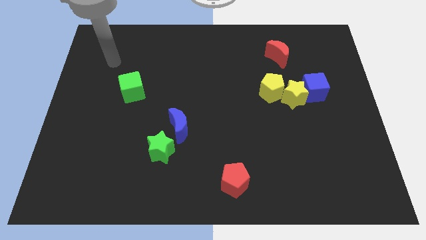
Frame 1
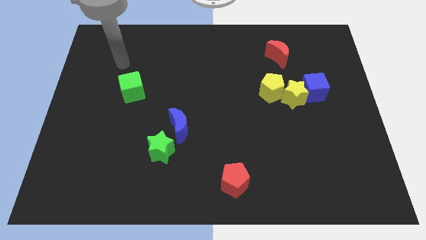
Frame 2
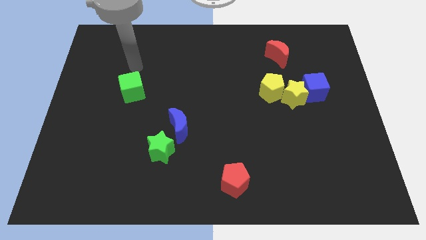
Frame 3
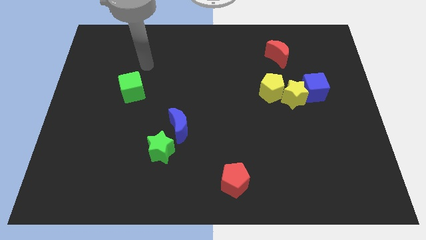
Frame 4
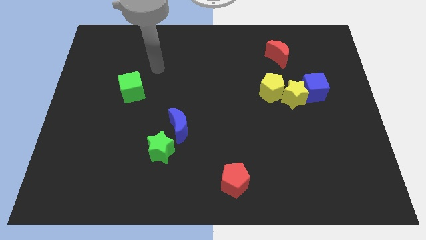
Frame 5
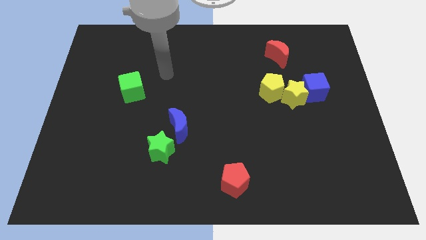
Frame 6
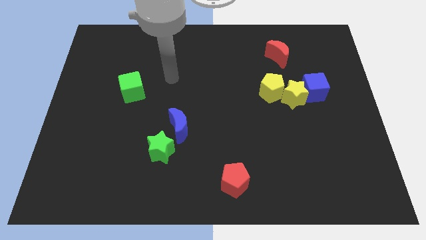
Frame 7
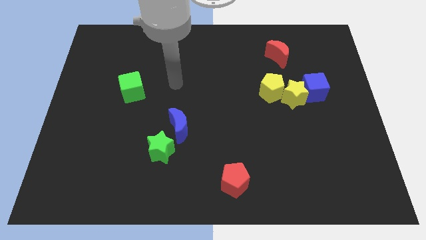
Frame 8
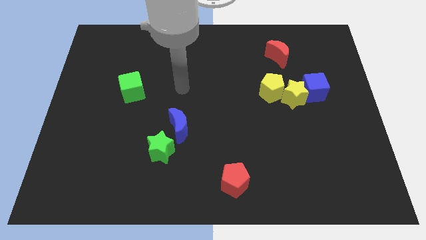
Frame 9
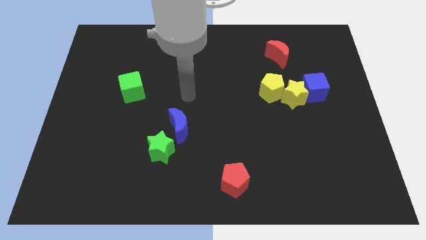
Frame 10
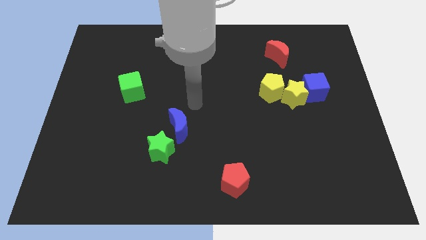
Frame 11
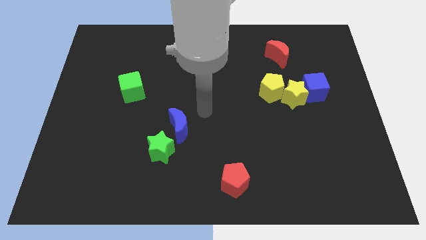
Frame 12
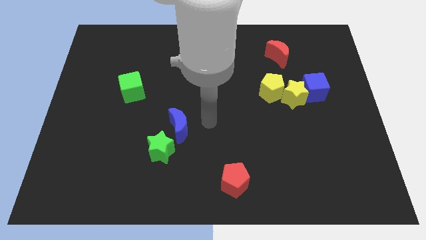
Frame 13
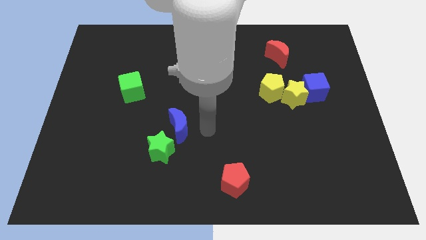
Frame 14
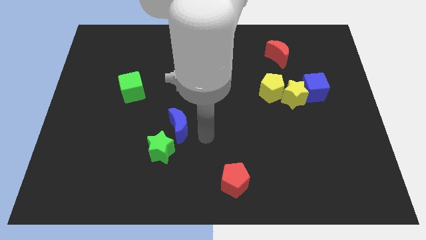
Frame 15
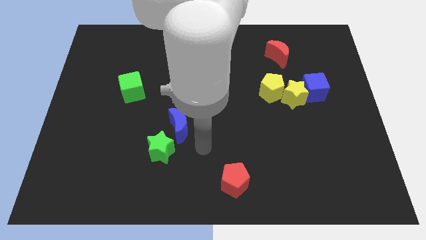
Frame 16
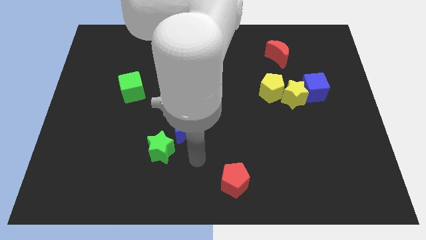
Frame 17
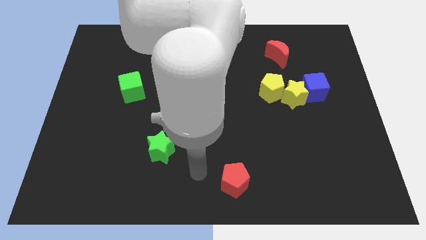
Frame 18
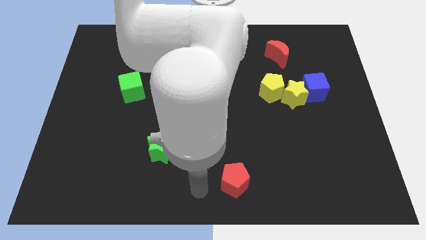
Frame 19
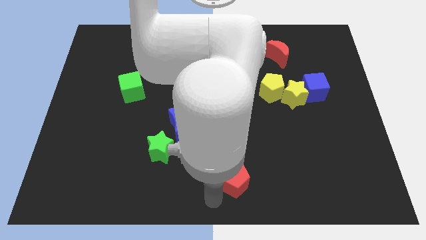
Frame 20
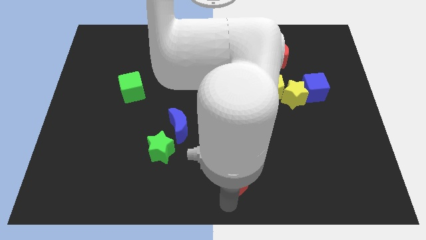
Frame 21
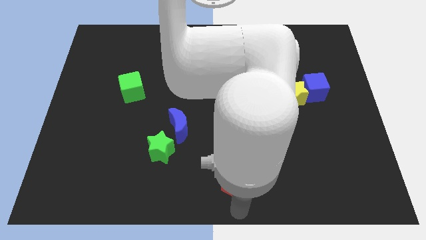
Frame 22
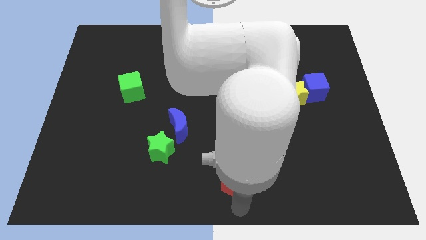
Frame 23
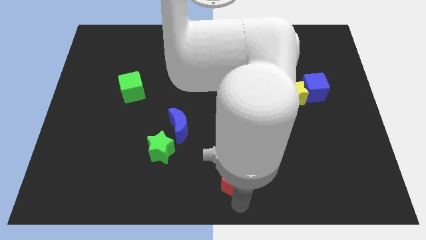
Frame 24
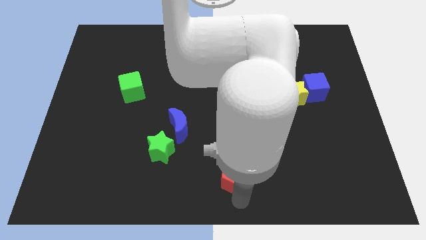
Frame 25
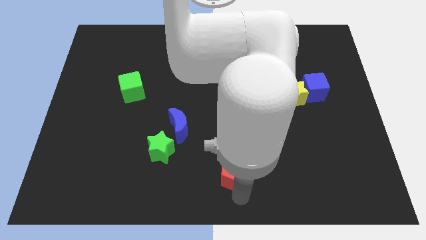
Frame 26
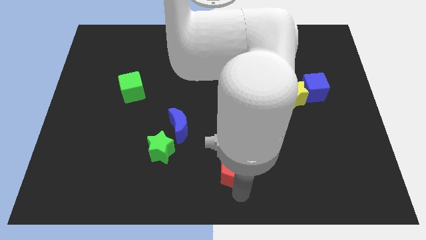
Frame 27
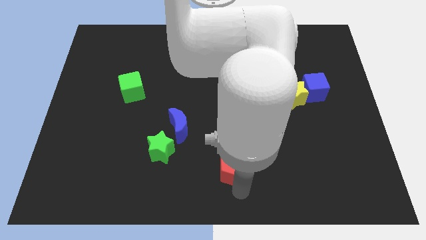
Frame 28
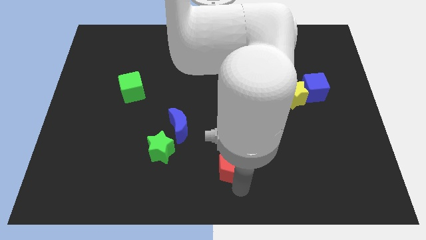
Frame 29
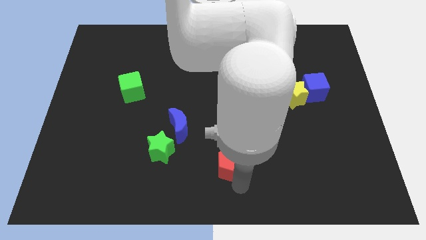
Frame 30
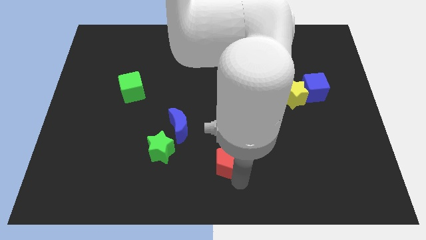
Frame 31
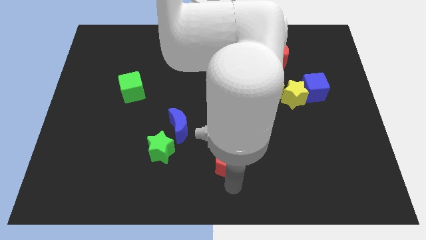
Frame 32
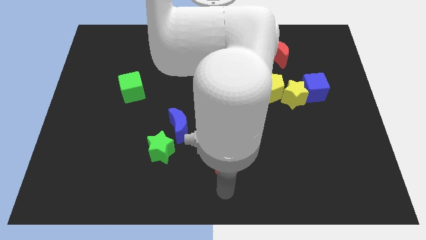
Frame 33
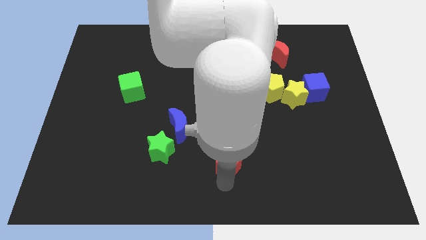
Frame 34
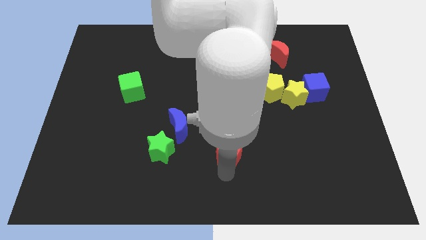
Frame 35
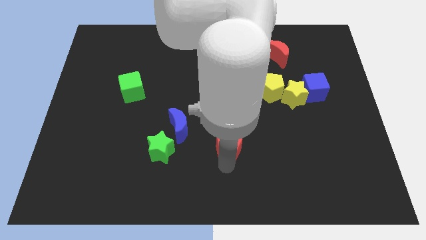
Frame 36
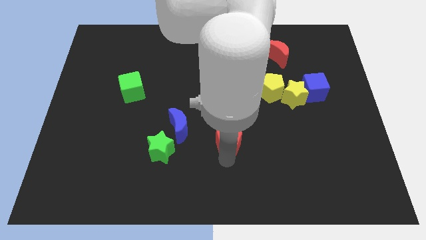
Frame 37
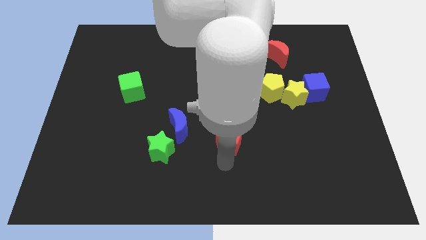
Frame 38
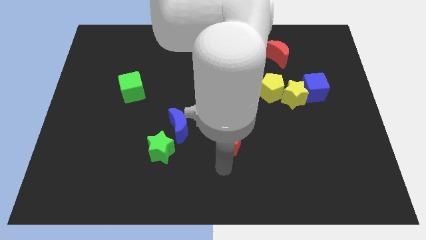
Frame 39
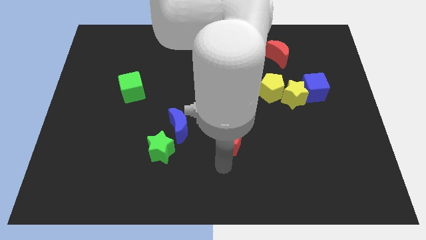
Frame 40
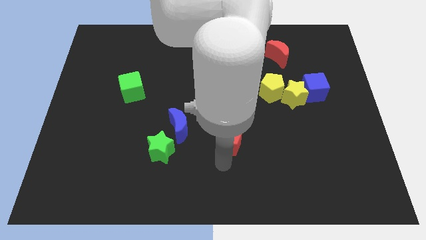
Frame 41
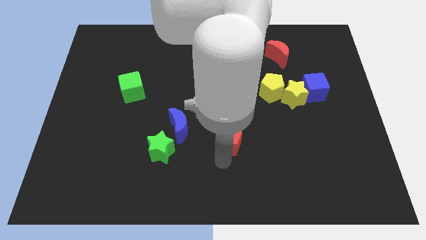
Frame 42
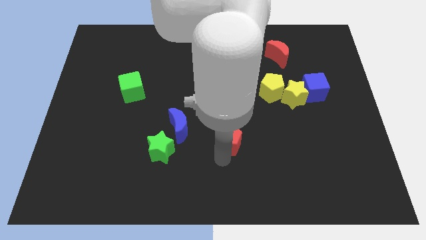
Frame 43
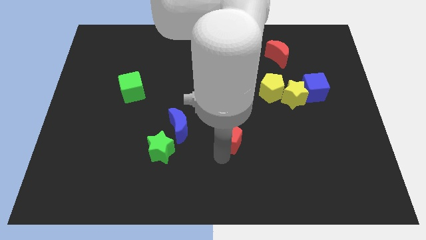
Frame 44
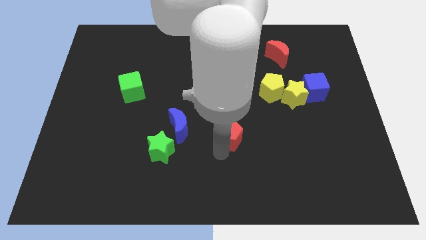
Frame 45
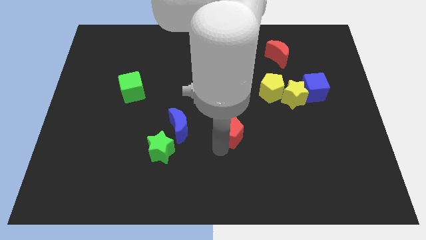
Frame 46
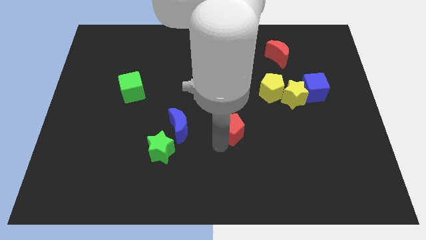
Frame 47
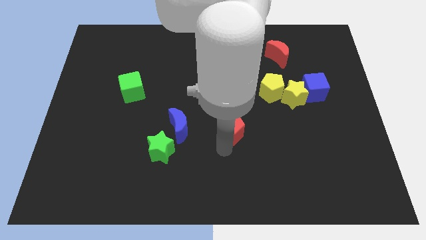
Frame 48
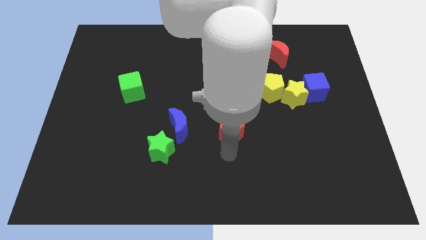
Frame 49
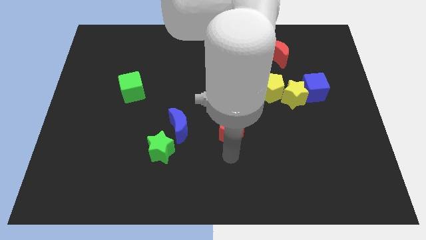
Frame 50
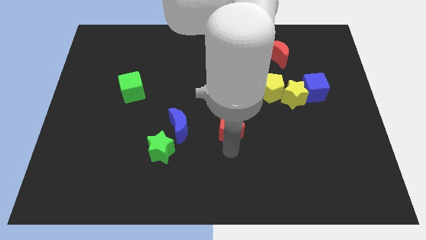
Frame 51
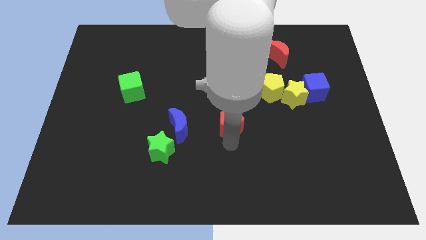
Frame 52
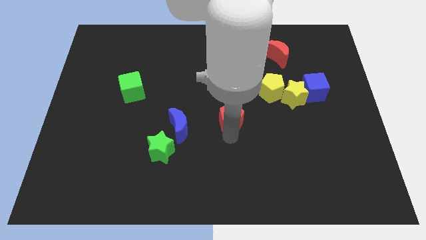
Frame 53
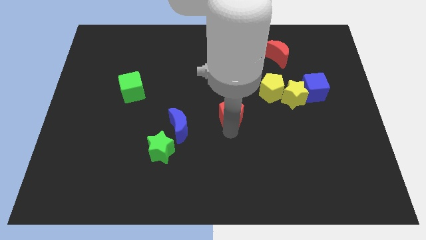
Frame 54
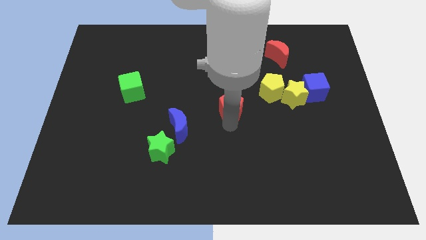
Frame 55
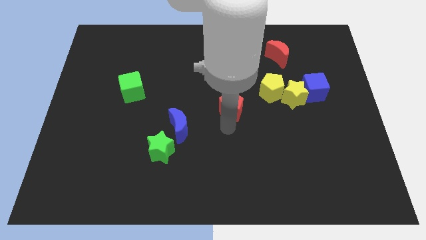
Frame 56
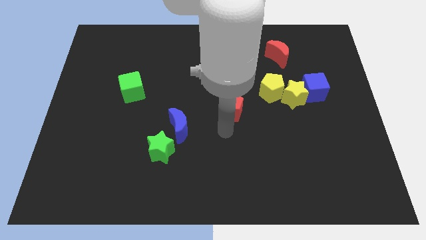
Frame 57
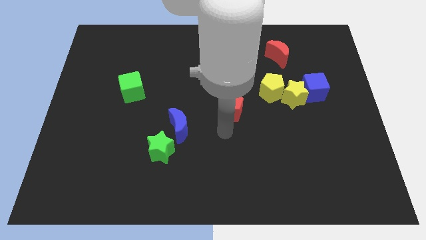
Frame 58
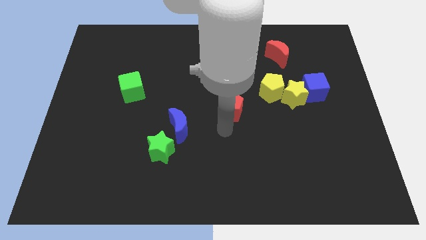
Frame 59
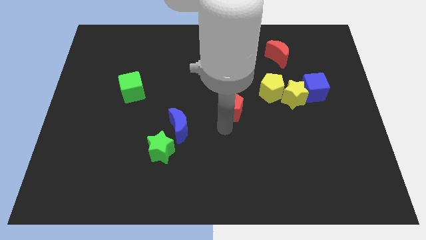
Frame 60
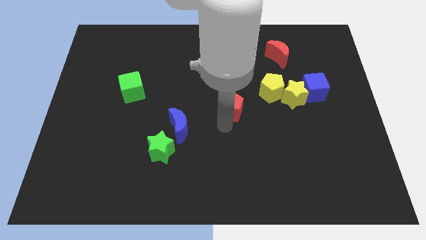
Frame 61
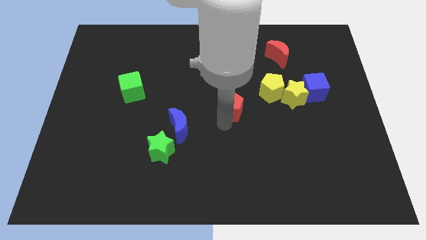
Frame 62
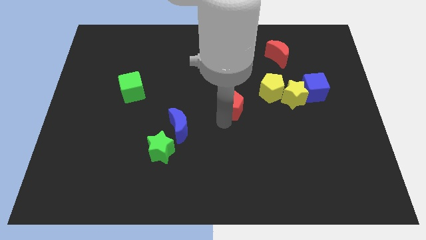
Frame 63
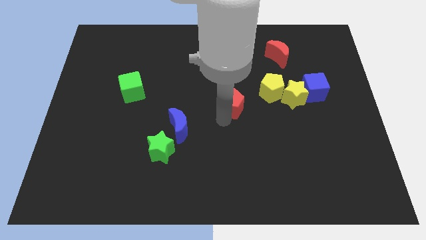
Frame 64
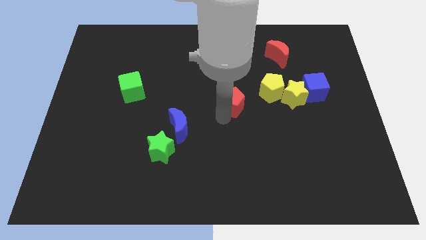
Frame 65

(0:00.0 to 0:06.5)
move the red pentagon upwards

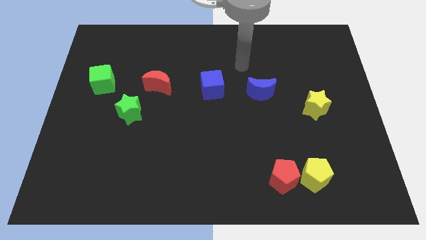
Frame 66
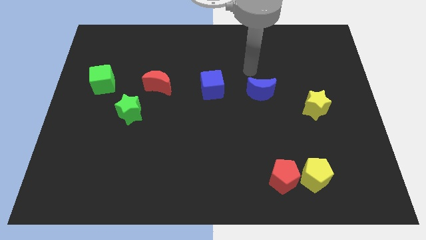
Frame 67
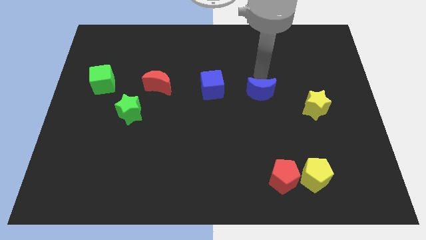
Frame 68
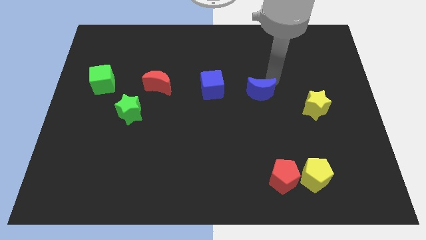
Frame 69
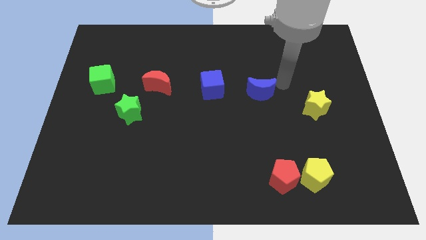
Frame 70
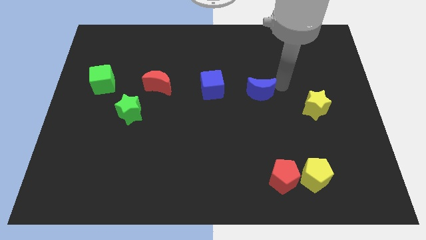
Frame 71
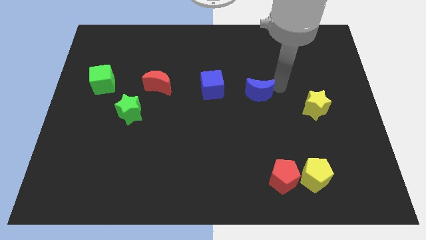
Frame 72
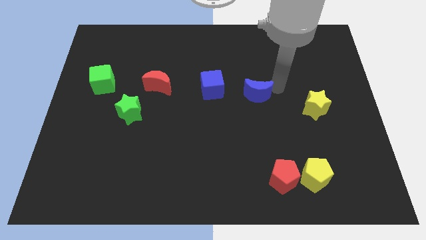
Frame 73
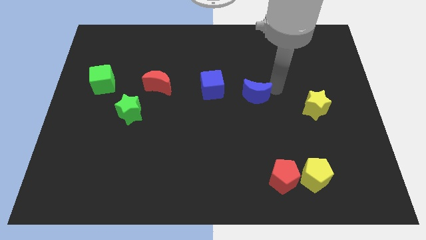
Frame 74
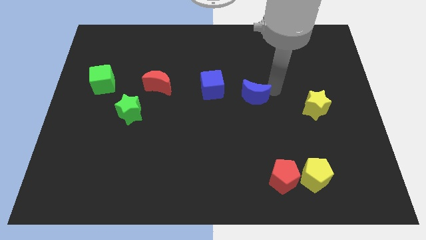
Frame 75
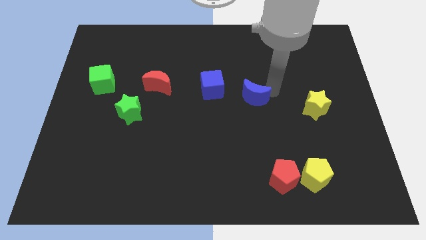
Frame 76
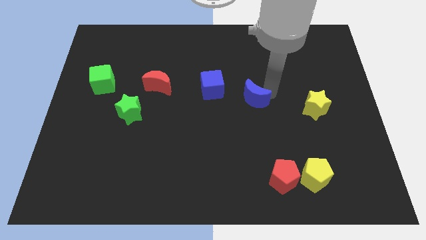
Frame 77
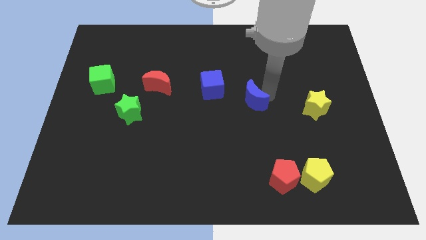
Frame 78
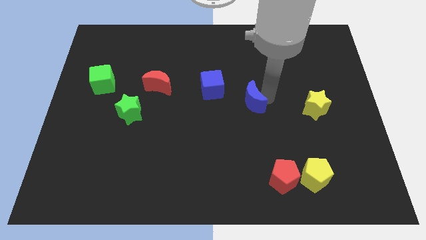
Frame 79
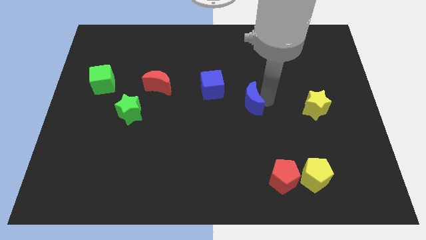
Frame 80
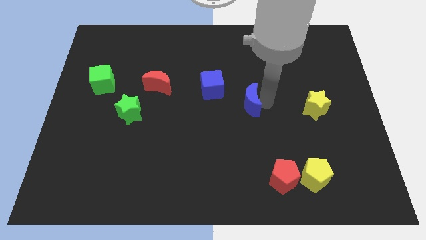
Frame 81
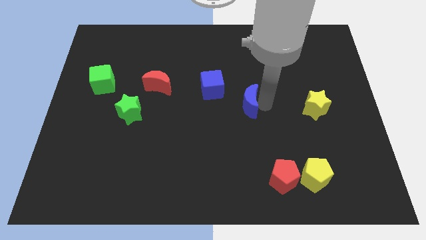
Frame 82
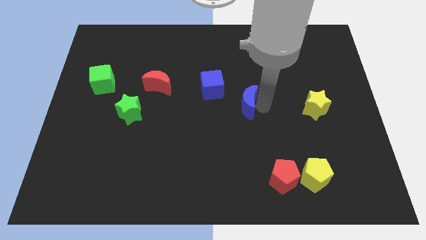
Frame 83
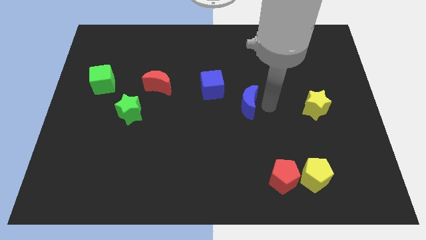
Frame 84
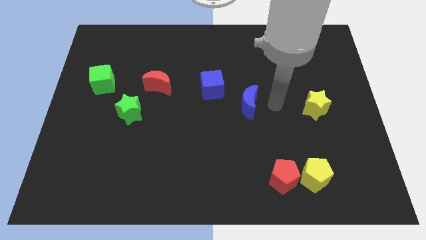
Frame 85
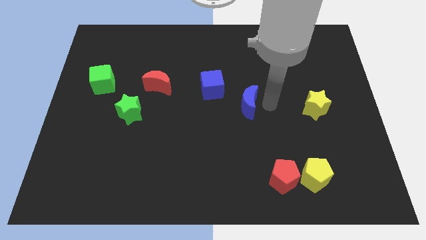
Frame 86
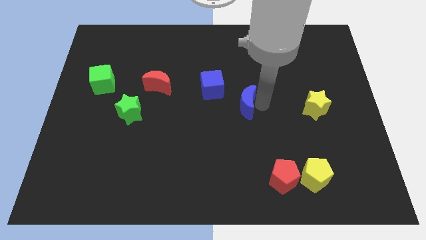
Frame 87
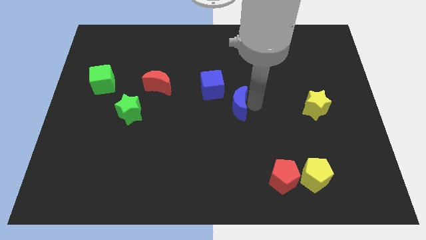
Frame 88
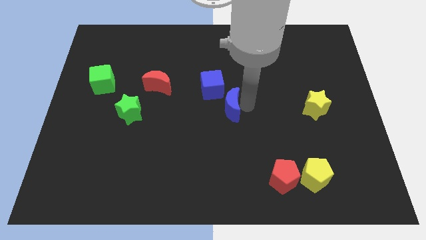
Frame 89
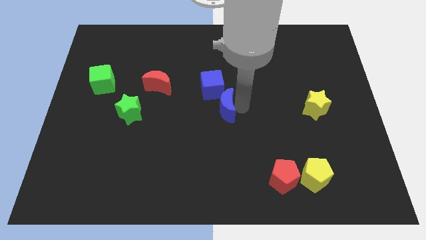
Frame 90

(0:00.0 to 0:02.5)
move the blue moon a bit left
